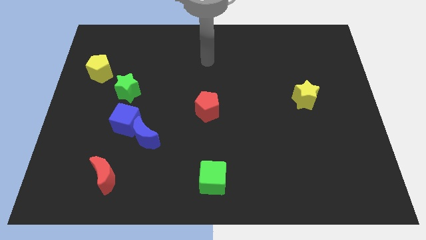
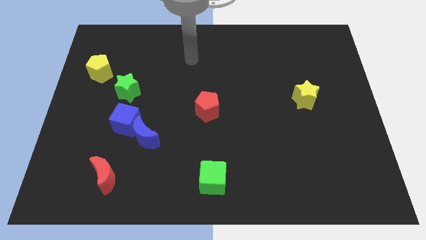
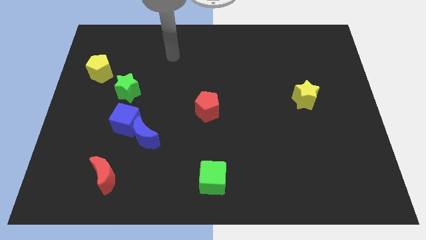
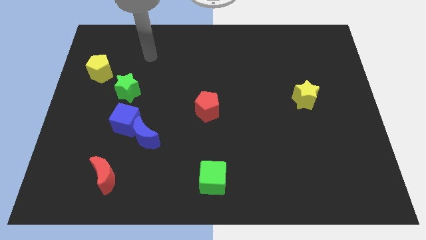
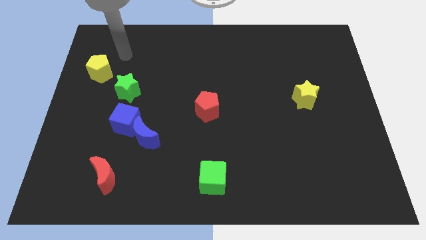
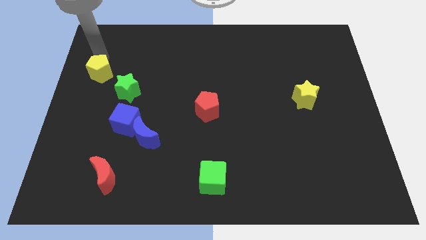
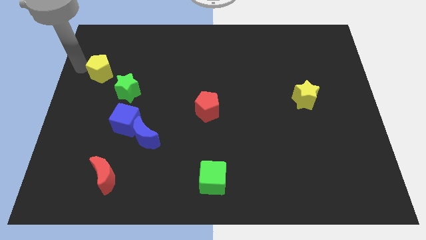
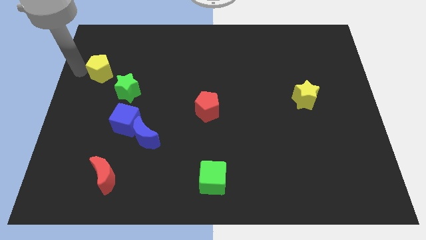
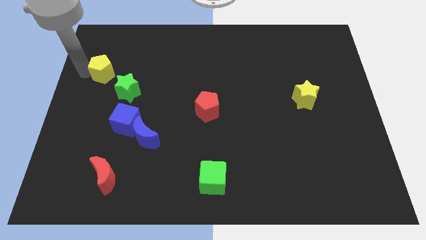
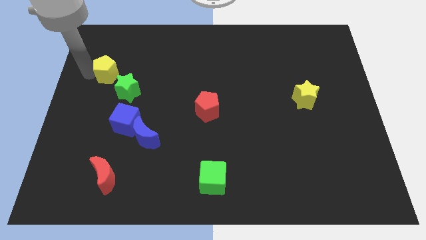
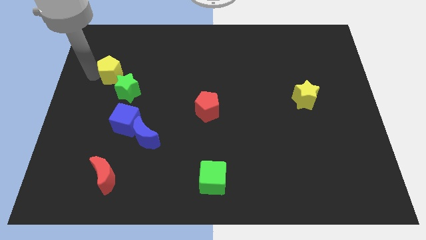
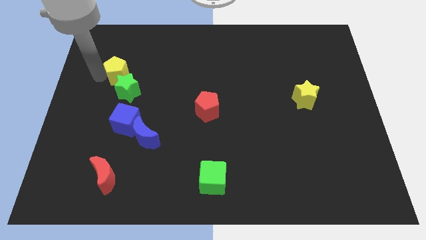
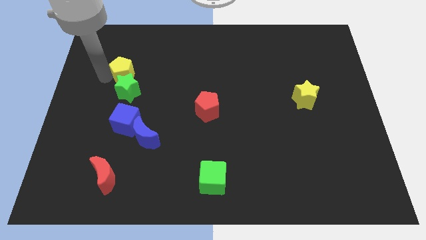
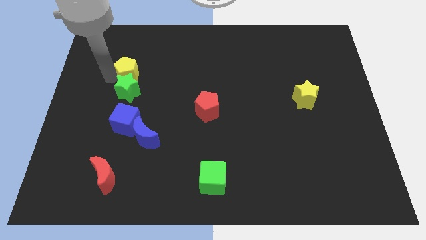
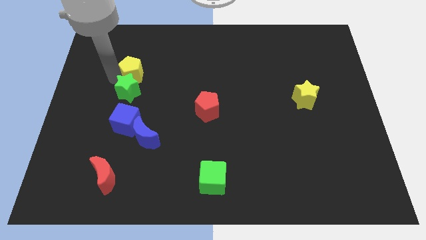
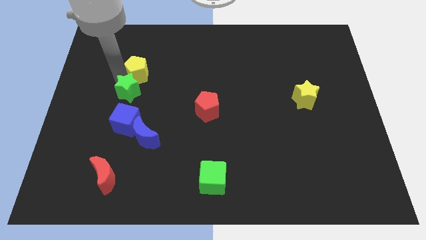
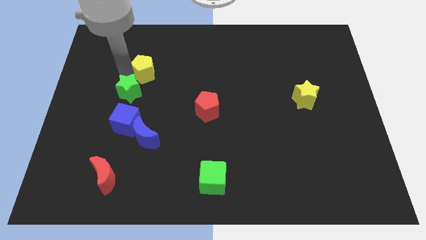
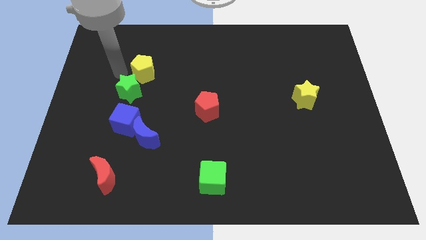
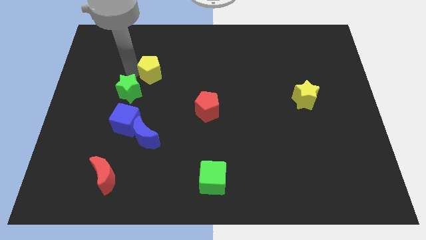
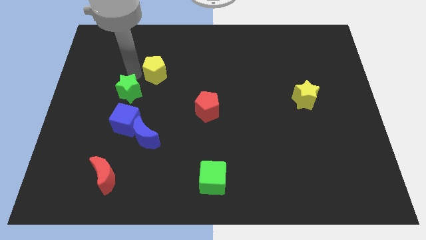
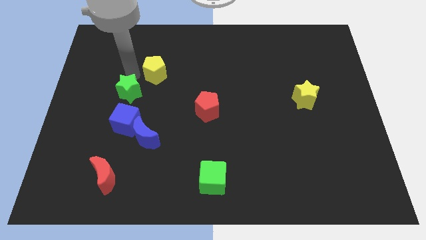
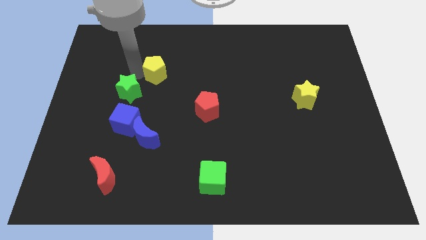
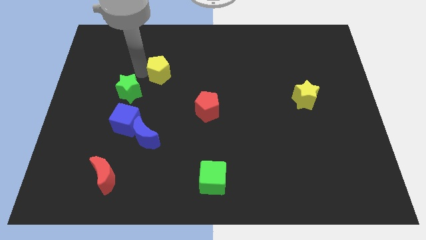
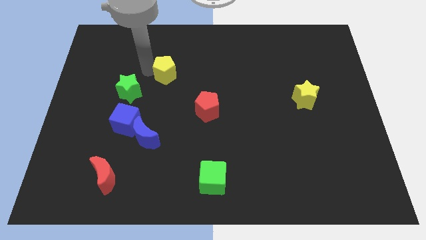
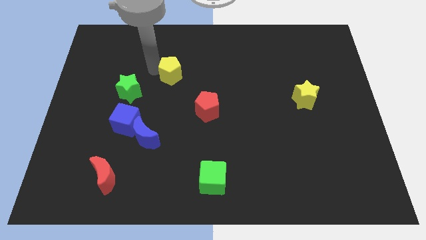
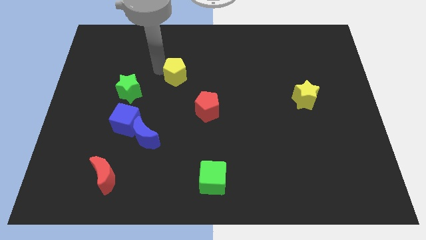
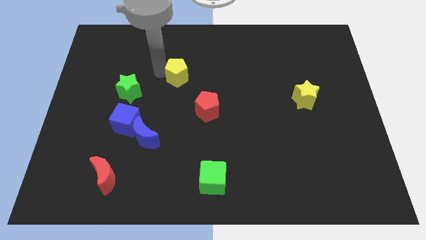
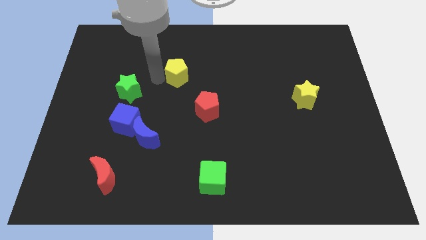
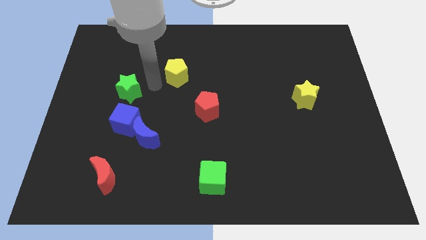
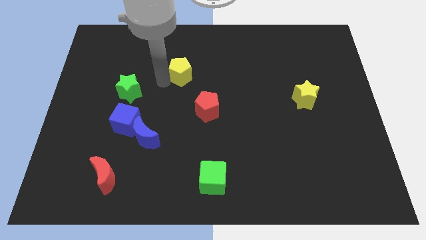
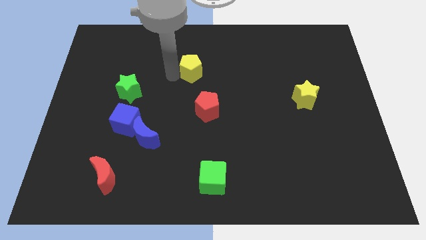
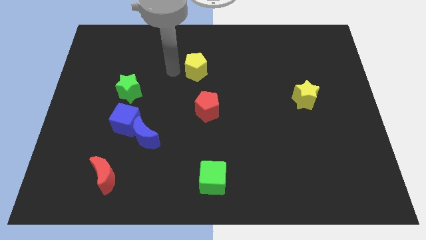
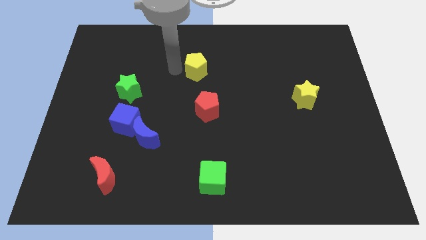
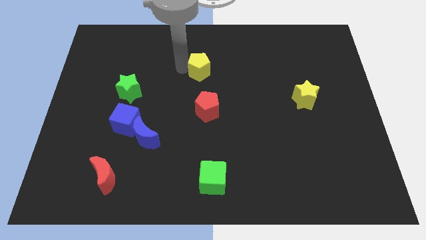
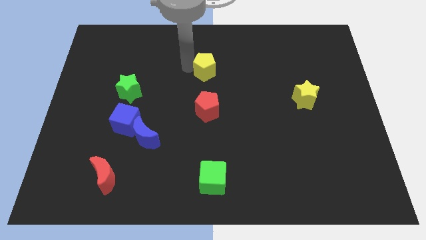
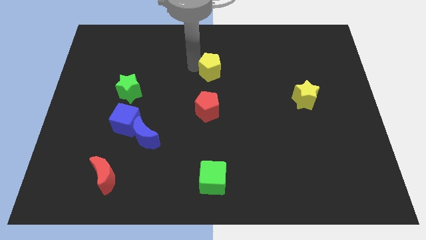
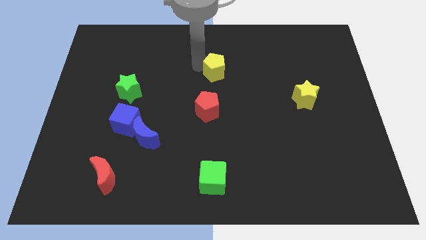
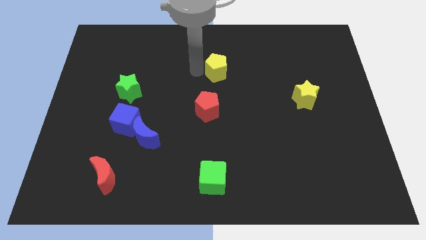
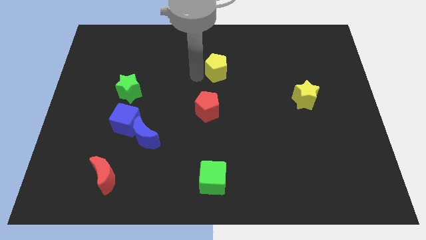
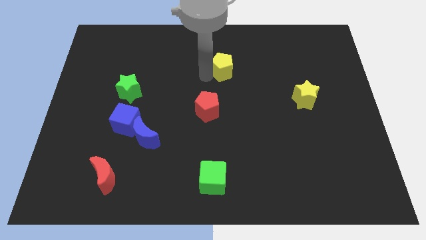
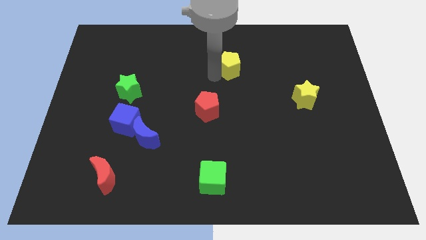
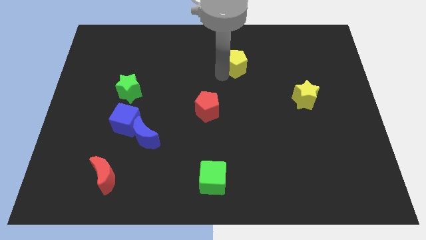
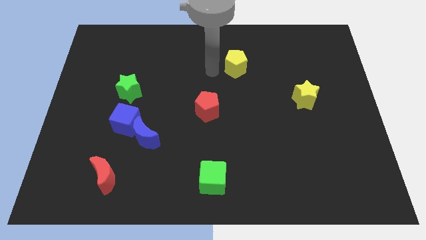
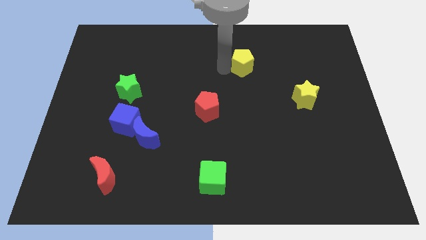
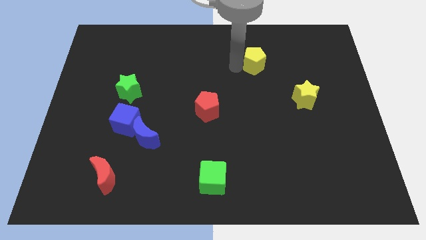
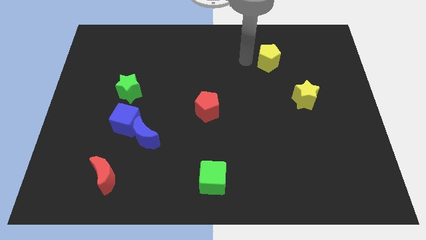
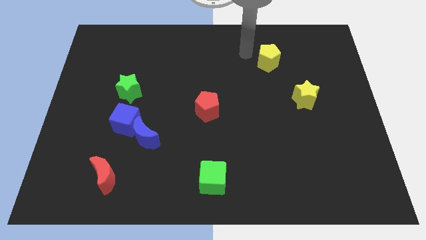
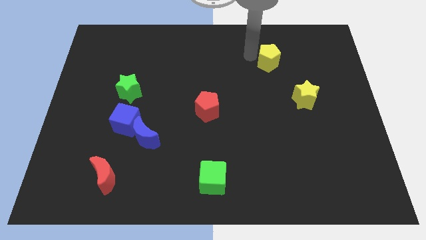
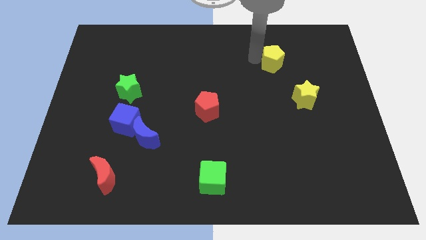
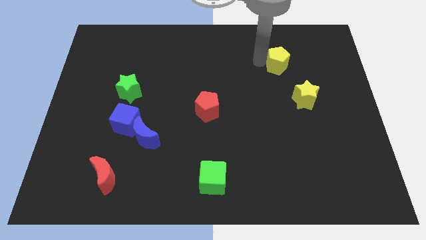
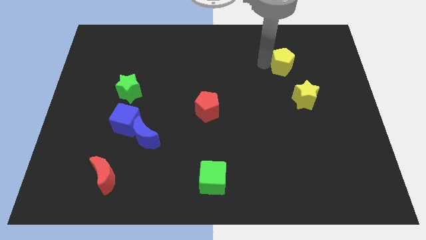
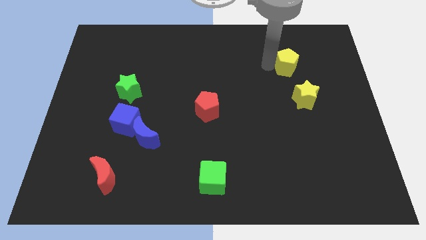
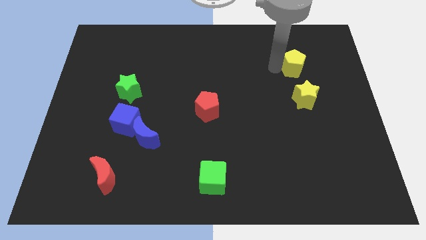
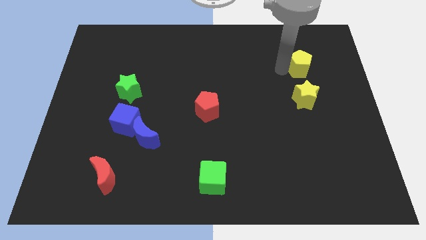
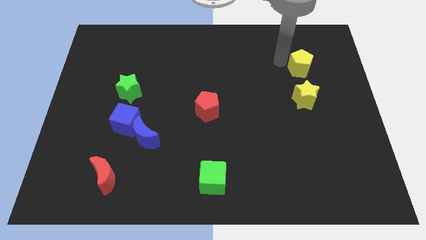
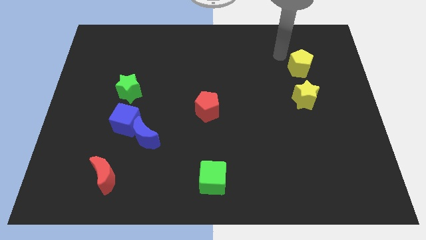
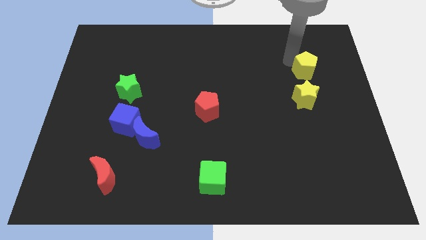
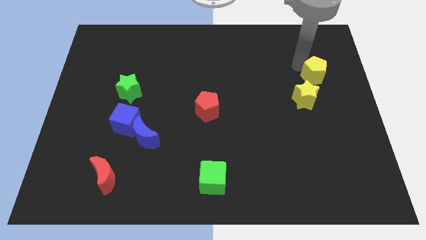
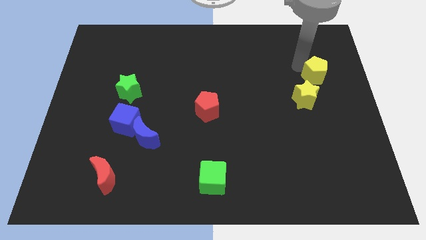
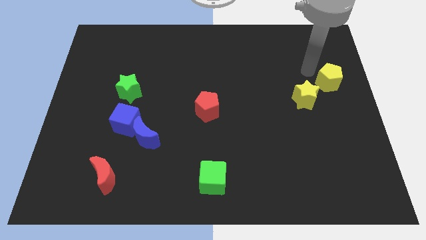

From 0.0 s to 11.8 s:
slide the yellow pentagon to the right side of the board

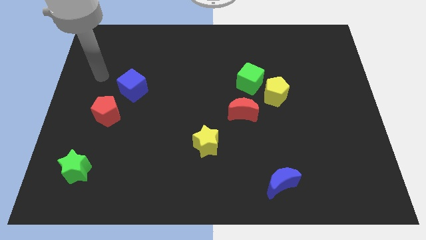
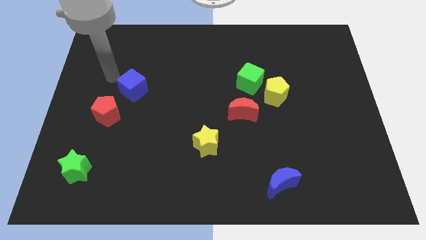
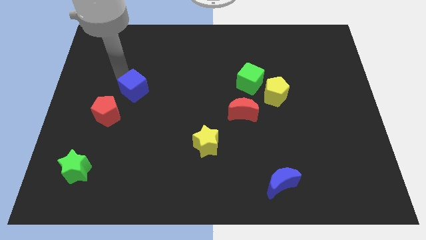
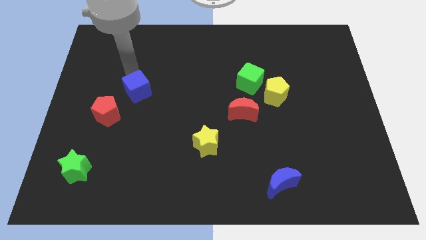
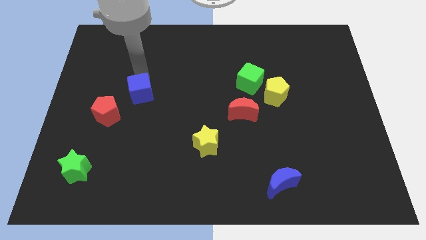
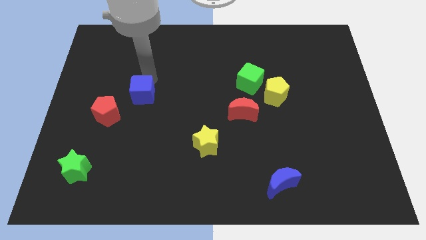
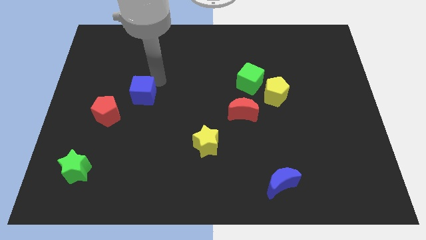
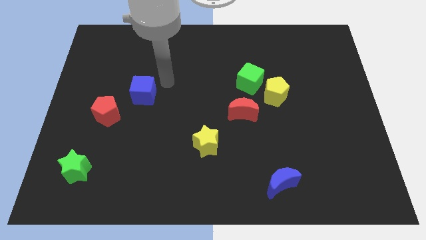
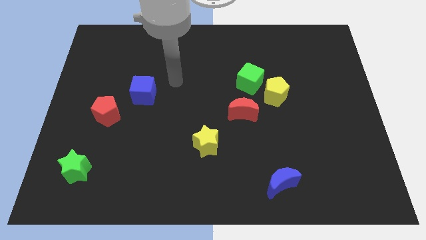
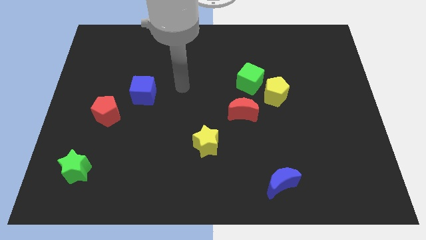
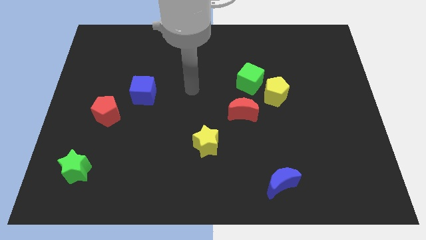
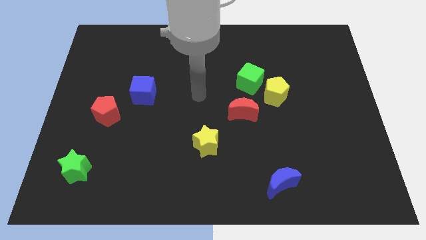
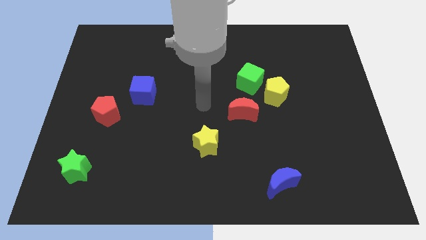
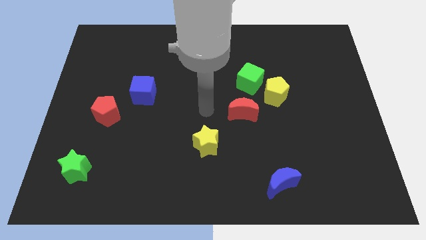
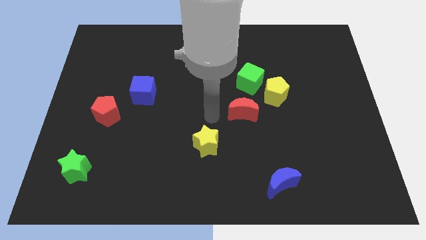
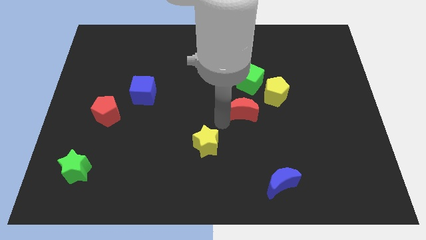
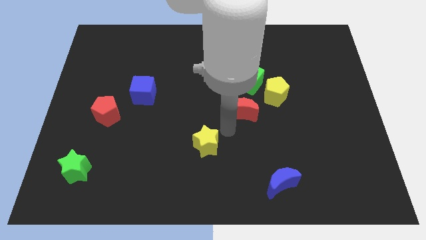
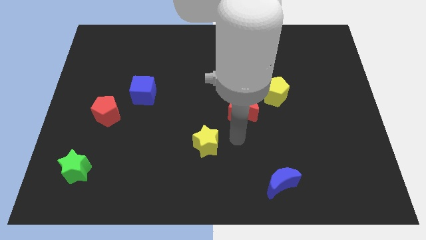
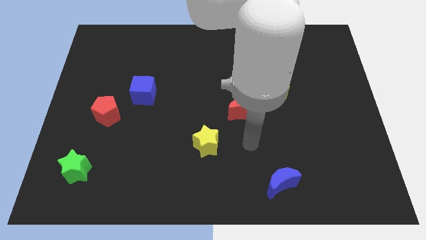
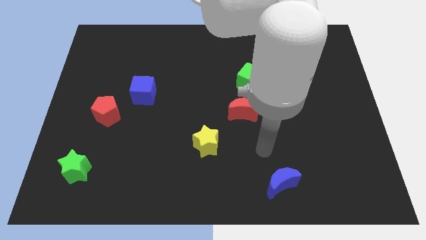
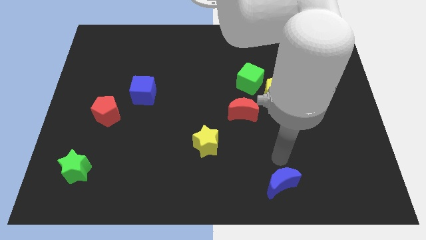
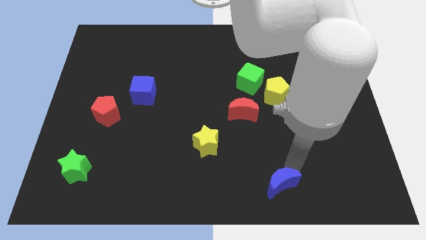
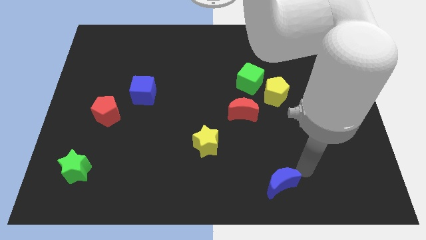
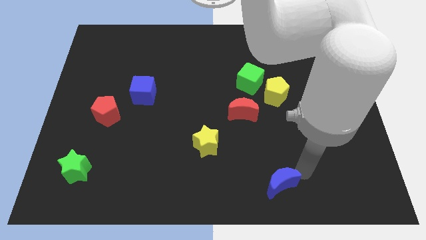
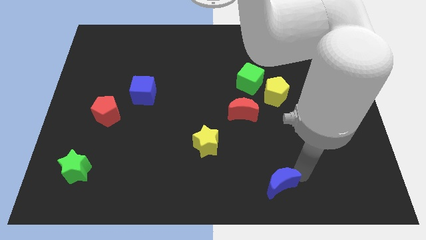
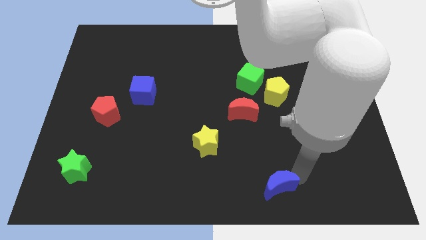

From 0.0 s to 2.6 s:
slide the blue moon to the bottom
